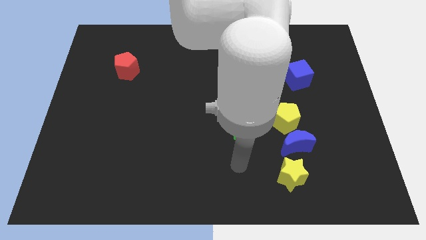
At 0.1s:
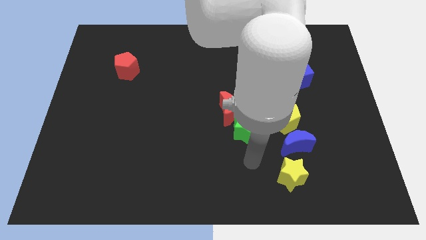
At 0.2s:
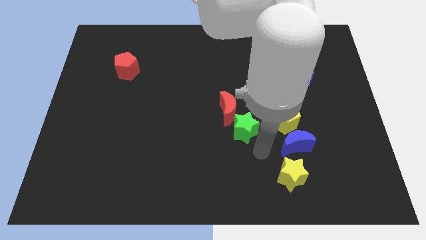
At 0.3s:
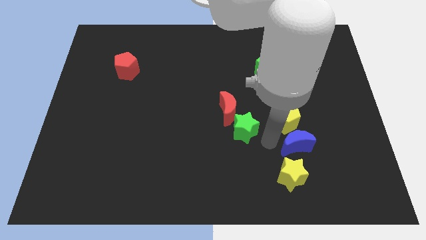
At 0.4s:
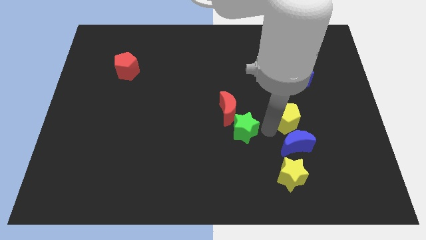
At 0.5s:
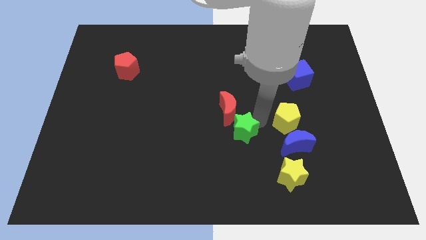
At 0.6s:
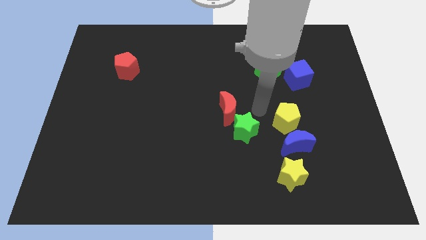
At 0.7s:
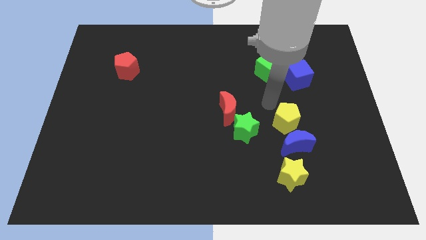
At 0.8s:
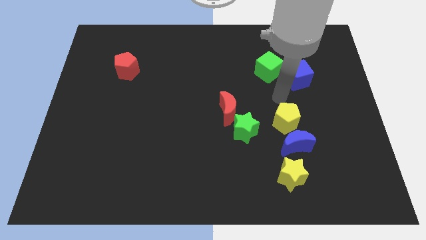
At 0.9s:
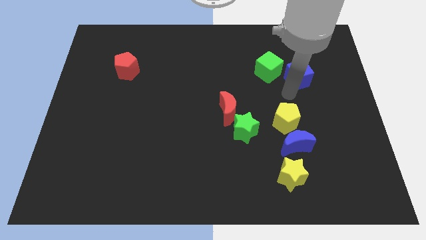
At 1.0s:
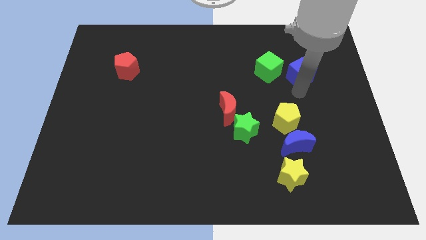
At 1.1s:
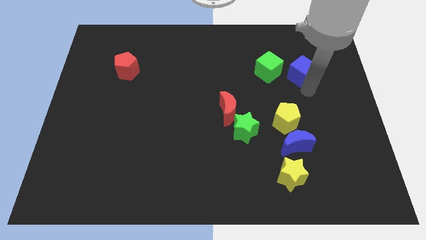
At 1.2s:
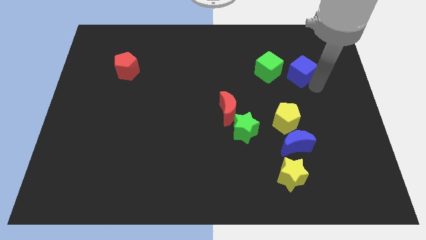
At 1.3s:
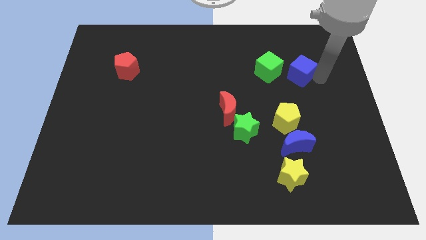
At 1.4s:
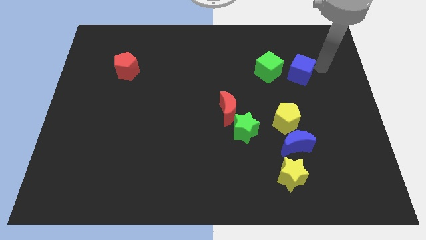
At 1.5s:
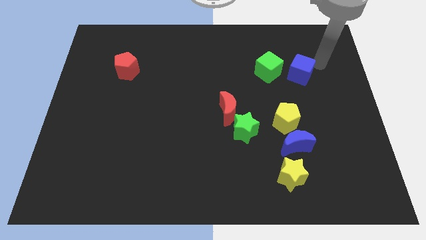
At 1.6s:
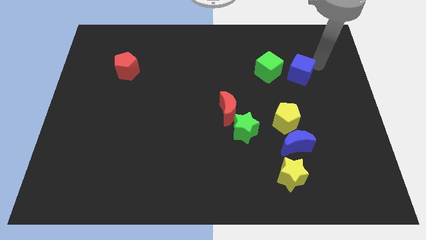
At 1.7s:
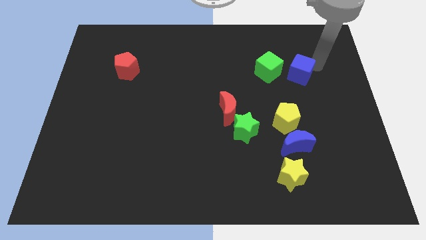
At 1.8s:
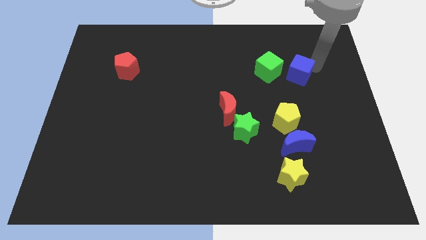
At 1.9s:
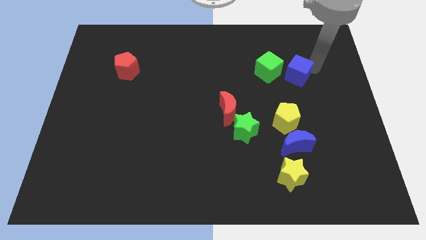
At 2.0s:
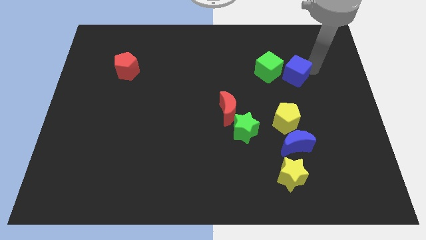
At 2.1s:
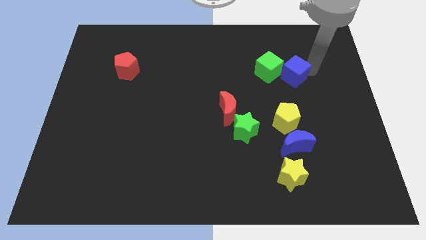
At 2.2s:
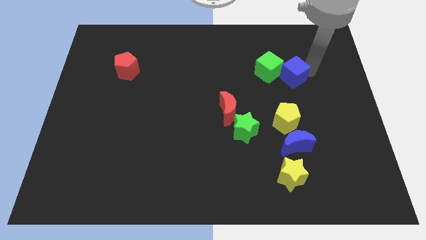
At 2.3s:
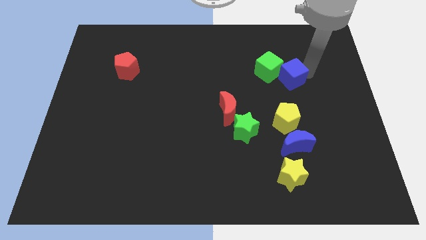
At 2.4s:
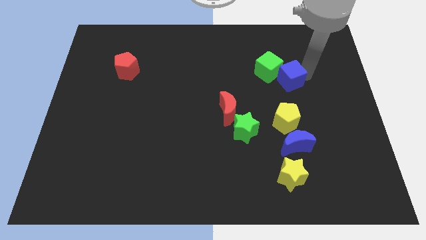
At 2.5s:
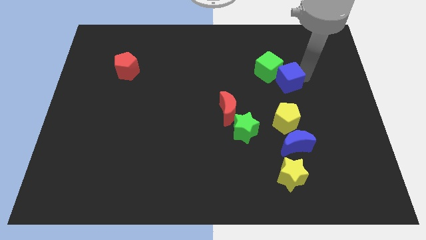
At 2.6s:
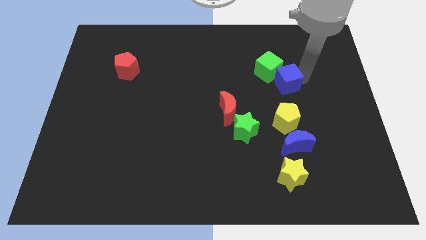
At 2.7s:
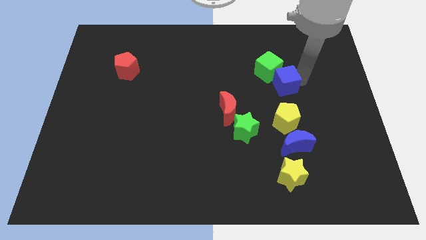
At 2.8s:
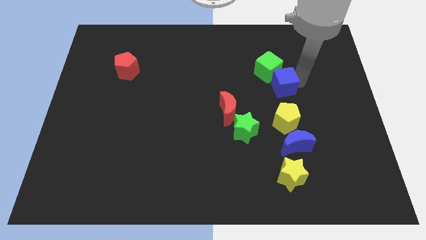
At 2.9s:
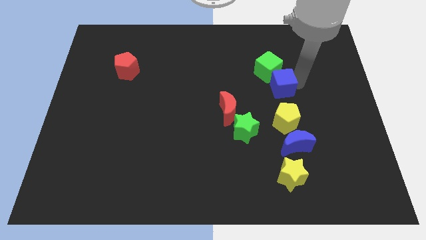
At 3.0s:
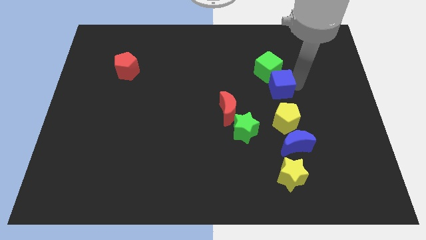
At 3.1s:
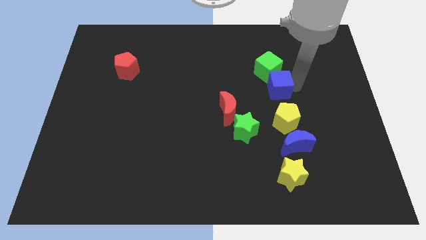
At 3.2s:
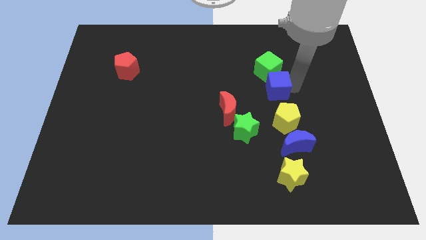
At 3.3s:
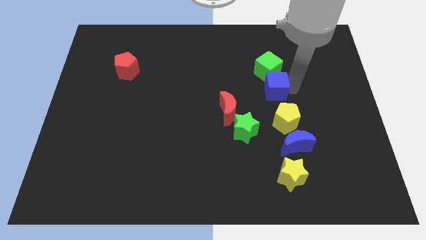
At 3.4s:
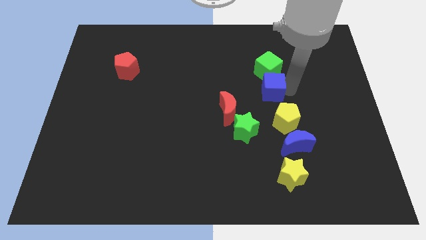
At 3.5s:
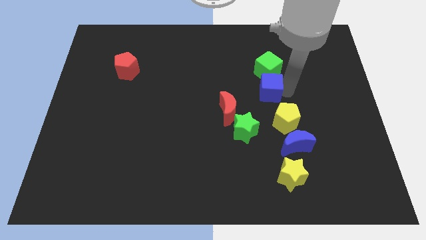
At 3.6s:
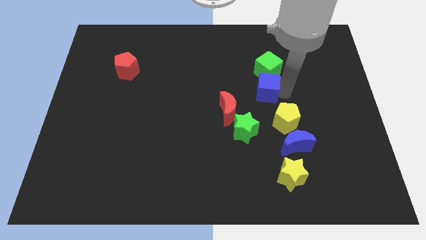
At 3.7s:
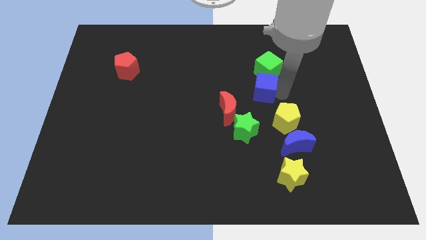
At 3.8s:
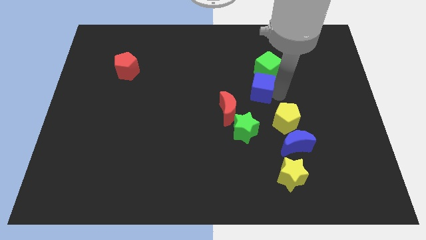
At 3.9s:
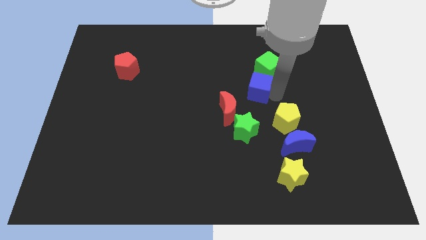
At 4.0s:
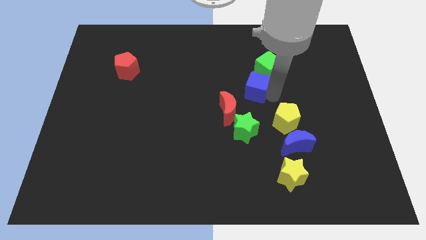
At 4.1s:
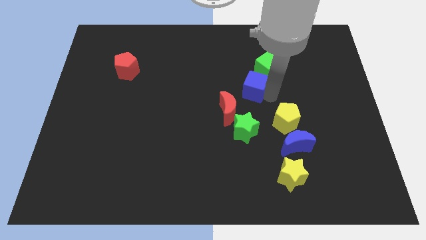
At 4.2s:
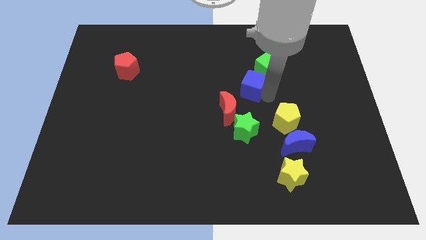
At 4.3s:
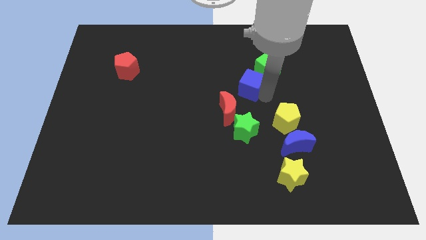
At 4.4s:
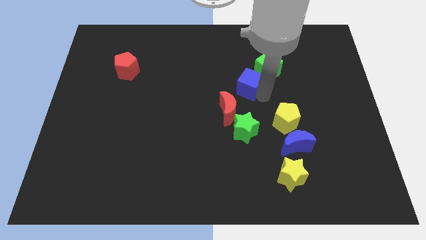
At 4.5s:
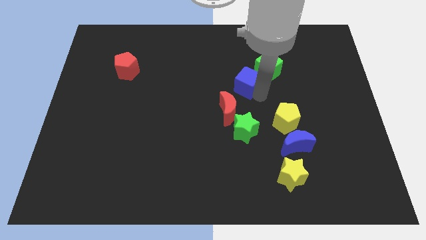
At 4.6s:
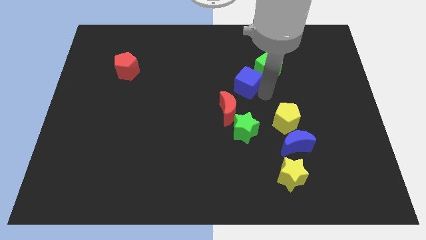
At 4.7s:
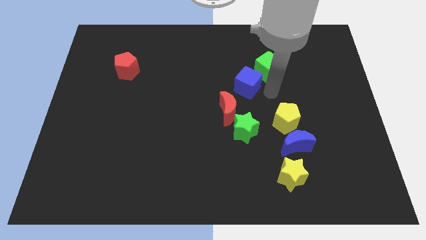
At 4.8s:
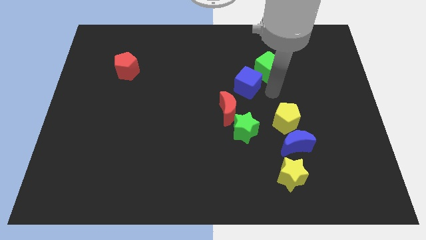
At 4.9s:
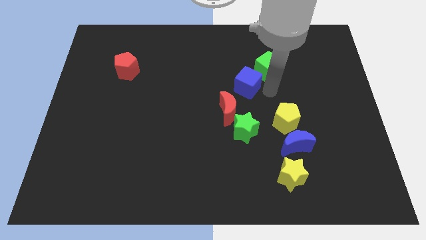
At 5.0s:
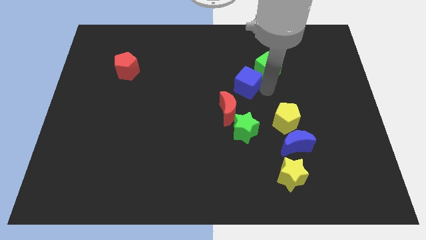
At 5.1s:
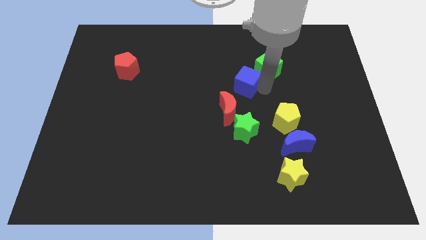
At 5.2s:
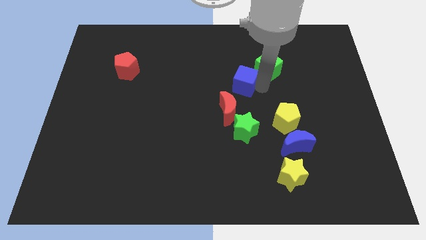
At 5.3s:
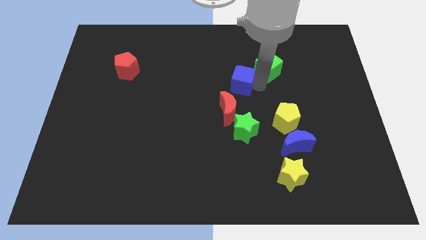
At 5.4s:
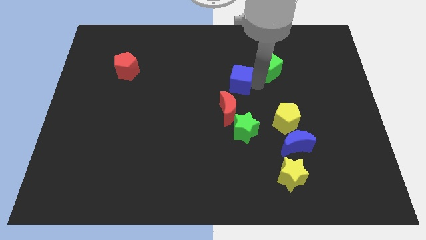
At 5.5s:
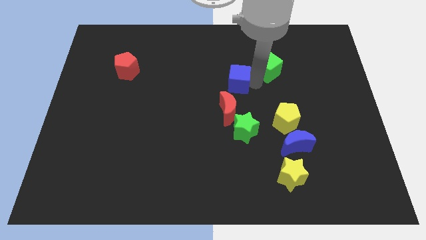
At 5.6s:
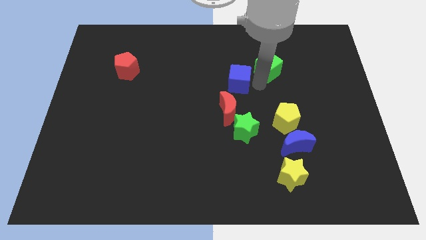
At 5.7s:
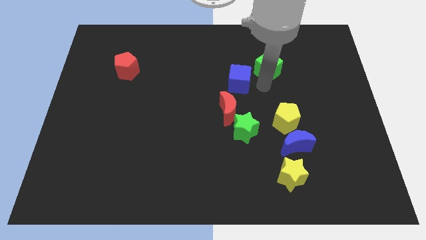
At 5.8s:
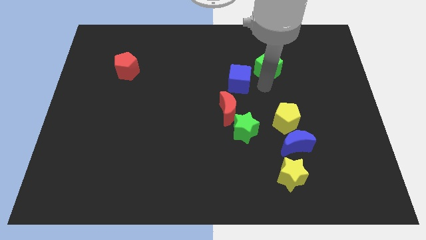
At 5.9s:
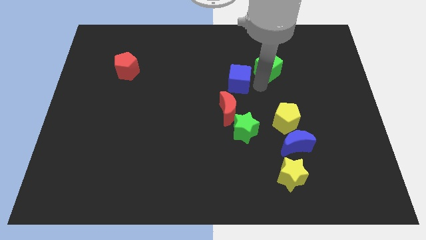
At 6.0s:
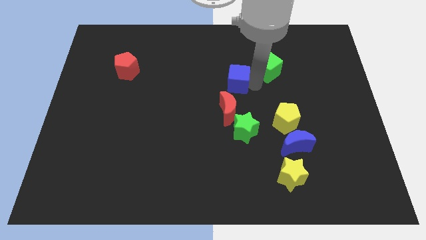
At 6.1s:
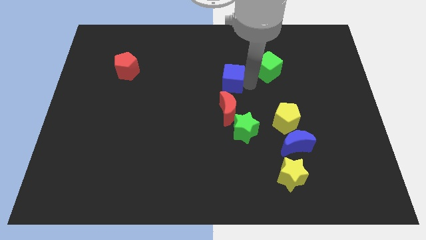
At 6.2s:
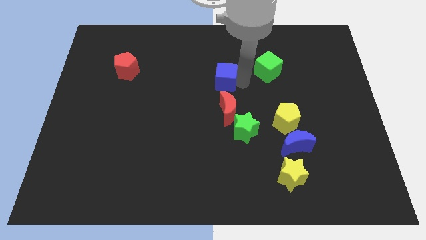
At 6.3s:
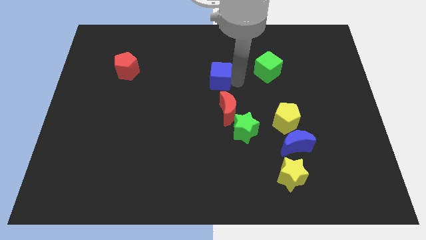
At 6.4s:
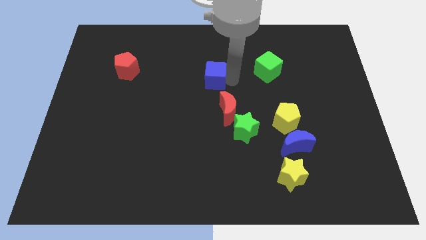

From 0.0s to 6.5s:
push the blue cube to the left

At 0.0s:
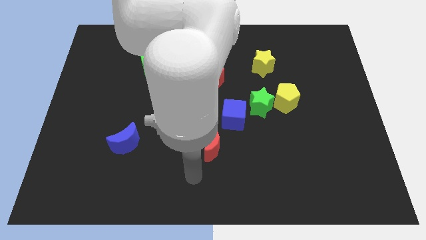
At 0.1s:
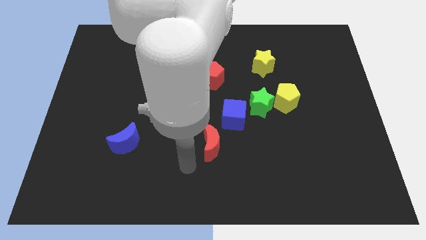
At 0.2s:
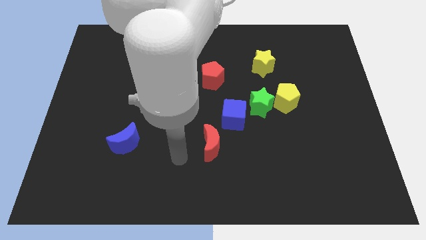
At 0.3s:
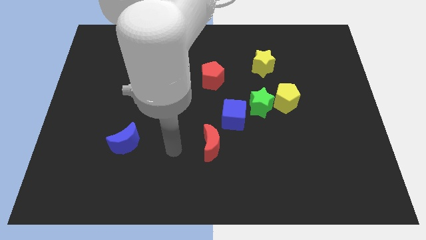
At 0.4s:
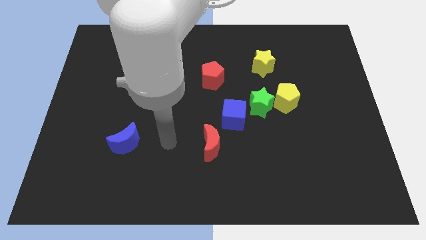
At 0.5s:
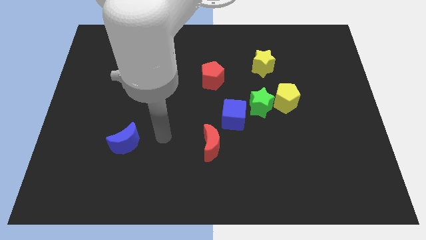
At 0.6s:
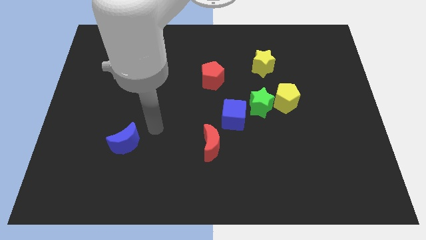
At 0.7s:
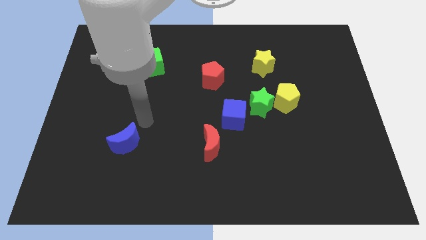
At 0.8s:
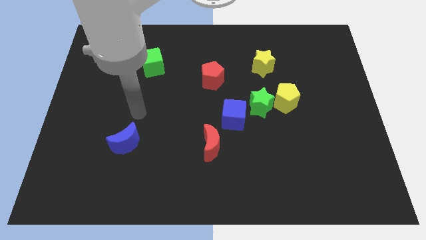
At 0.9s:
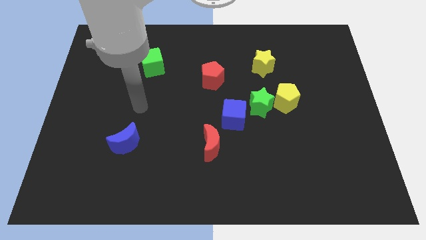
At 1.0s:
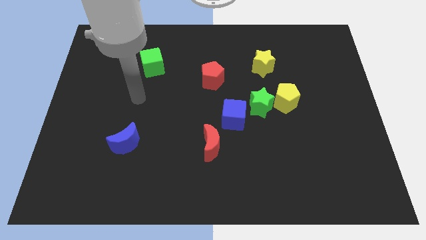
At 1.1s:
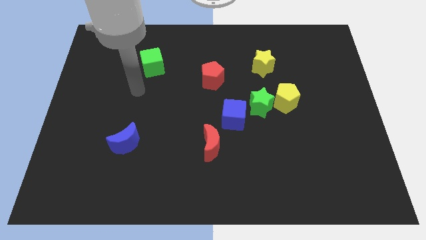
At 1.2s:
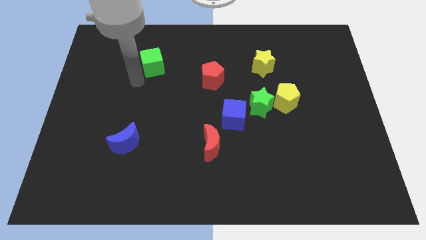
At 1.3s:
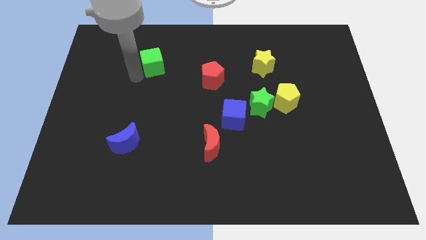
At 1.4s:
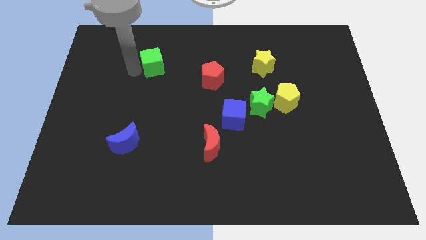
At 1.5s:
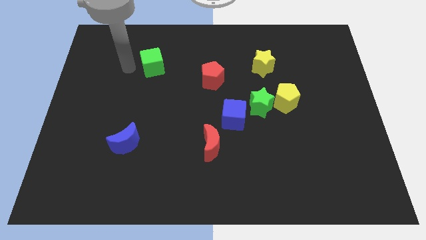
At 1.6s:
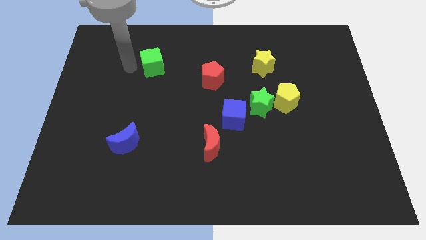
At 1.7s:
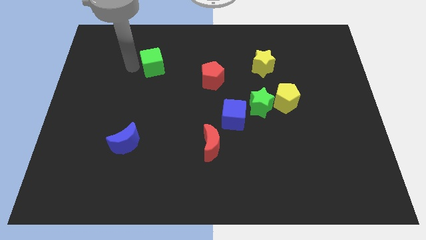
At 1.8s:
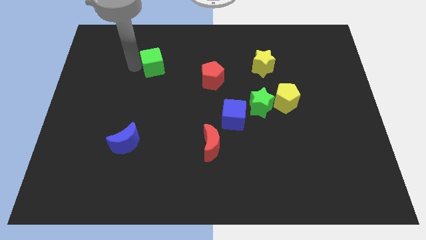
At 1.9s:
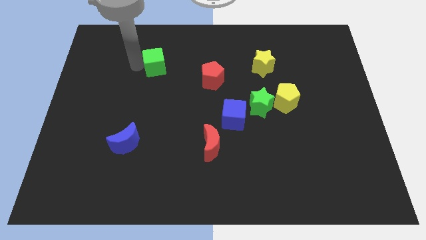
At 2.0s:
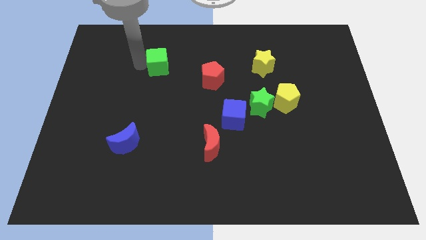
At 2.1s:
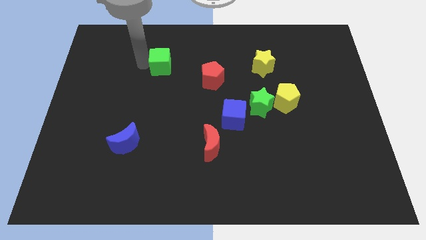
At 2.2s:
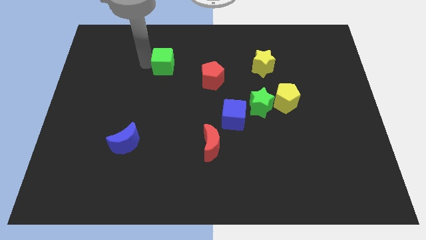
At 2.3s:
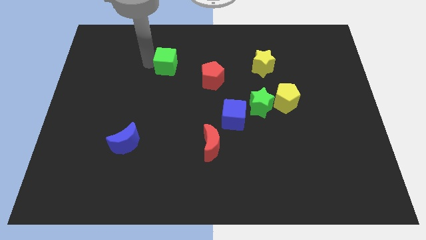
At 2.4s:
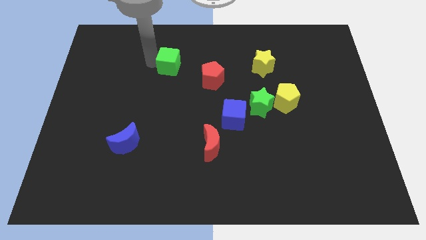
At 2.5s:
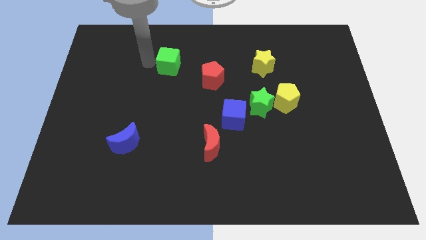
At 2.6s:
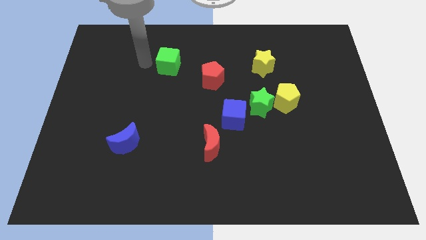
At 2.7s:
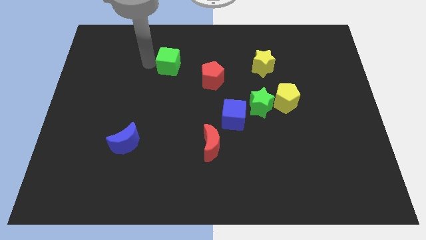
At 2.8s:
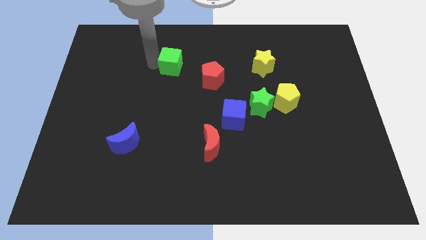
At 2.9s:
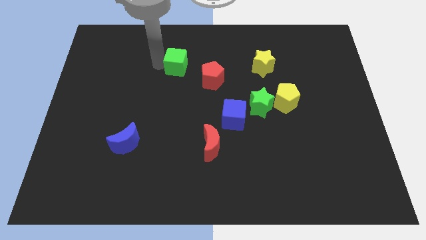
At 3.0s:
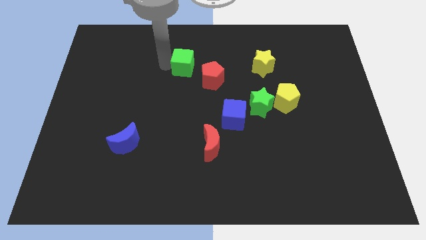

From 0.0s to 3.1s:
slightly move the green cube right
